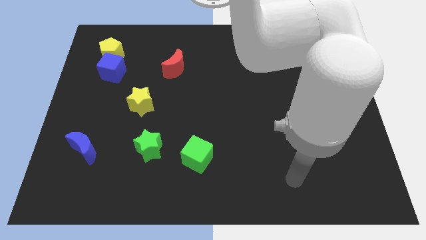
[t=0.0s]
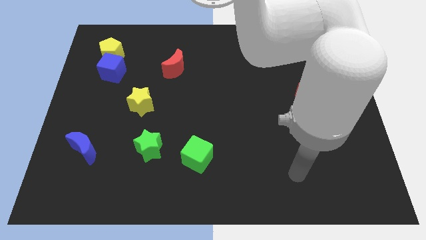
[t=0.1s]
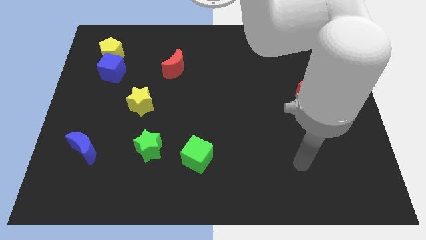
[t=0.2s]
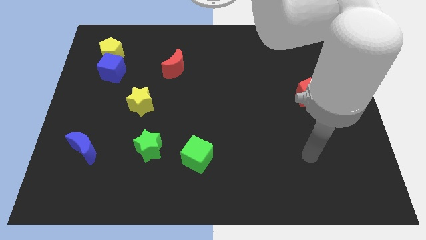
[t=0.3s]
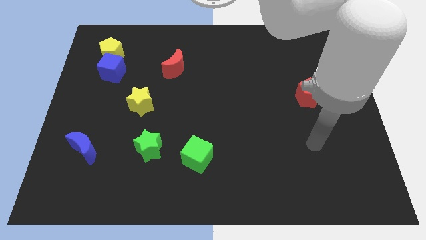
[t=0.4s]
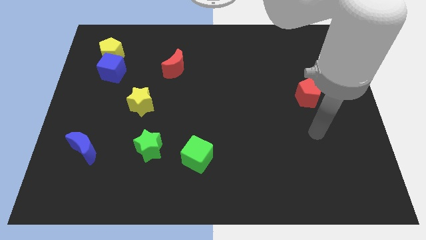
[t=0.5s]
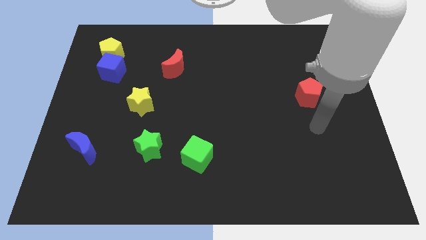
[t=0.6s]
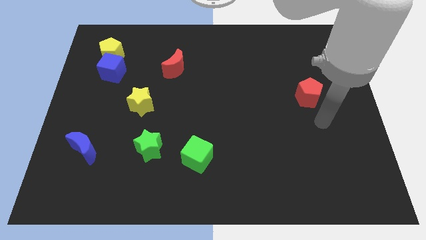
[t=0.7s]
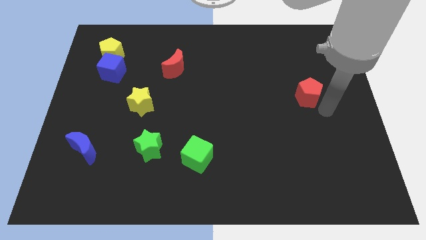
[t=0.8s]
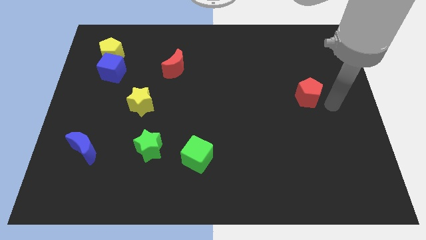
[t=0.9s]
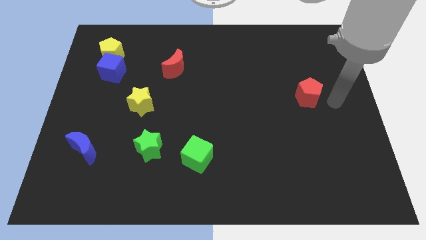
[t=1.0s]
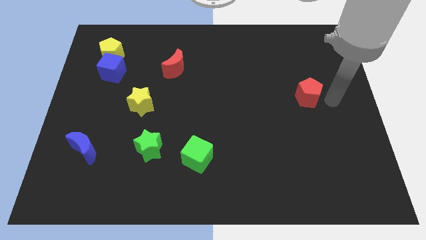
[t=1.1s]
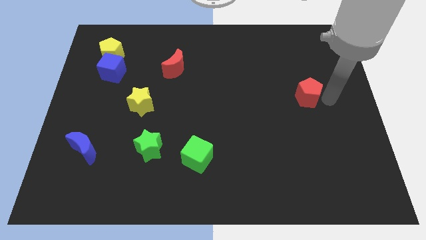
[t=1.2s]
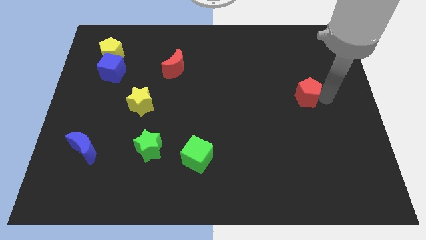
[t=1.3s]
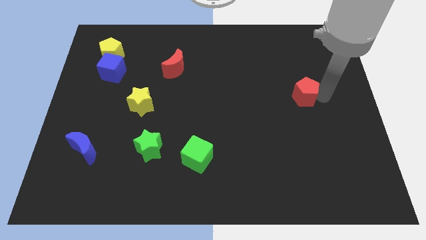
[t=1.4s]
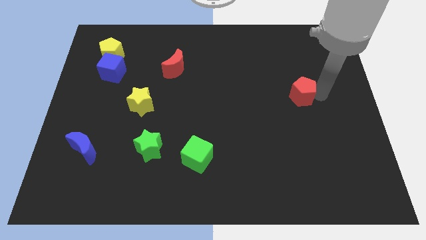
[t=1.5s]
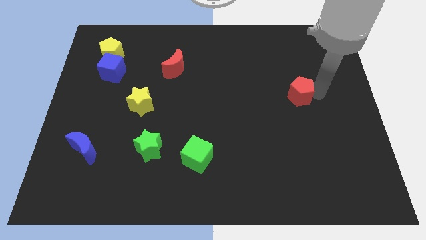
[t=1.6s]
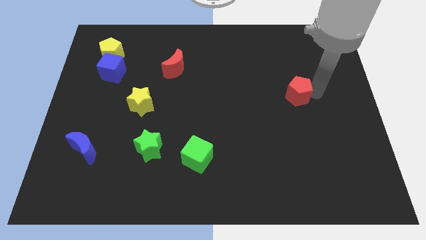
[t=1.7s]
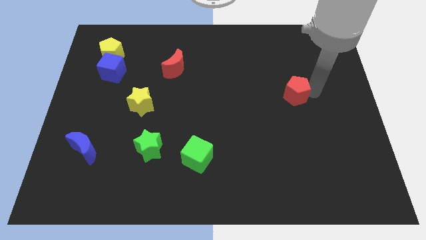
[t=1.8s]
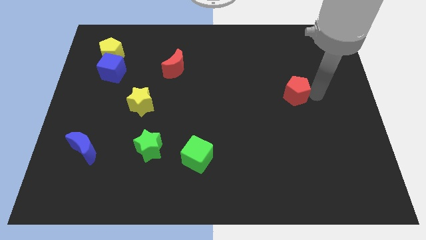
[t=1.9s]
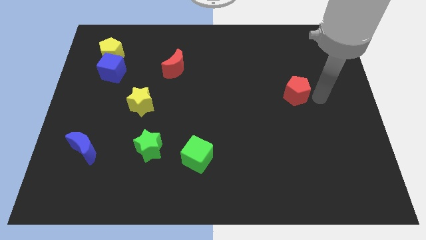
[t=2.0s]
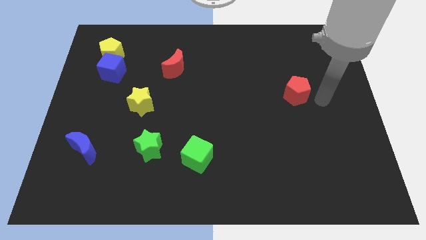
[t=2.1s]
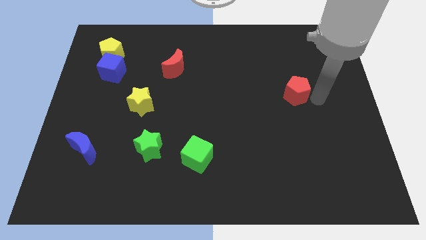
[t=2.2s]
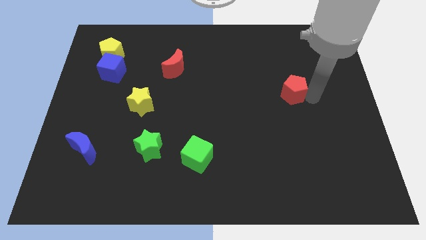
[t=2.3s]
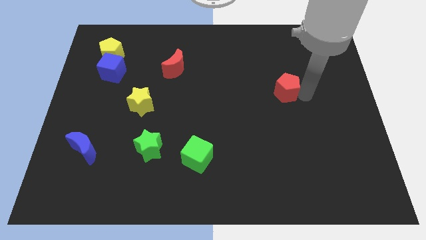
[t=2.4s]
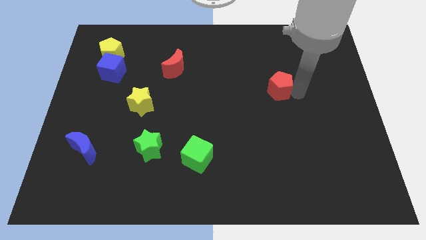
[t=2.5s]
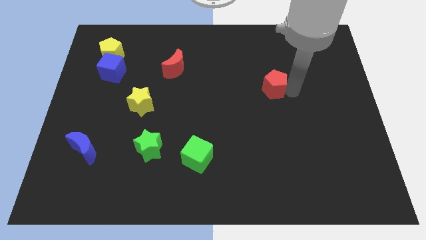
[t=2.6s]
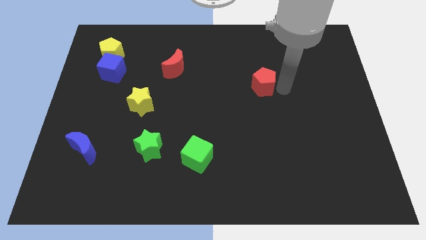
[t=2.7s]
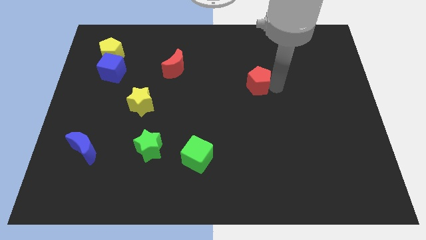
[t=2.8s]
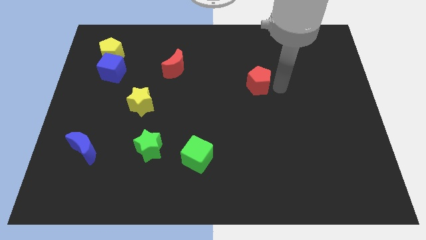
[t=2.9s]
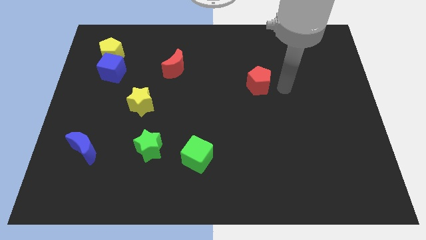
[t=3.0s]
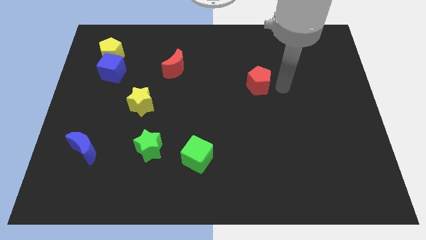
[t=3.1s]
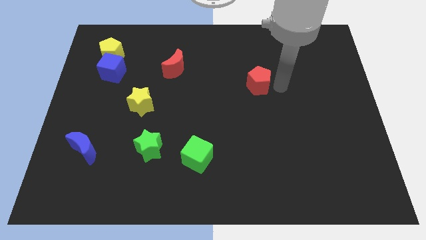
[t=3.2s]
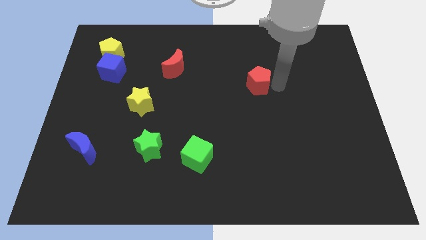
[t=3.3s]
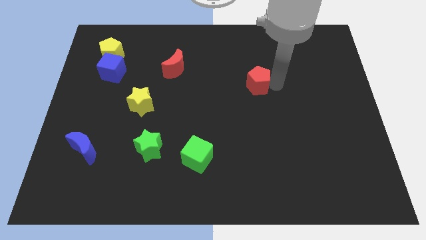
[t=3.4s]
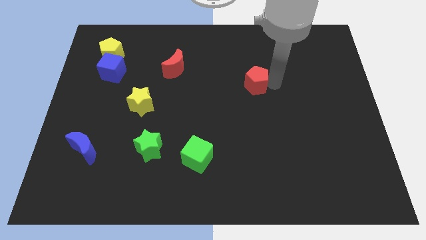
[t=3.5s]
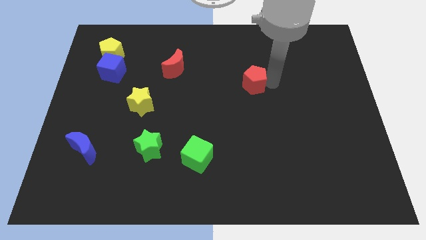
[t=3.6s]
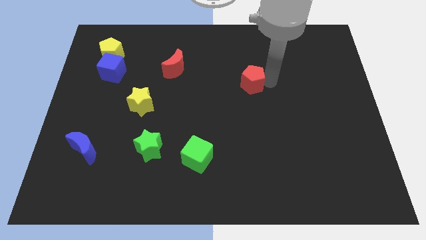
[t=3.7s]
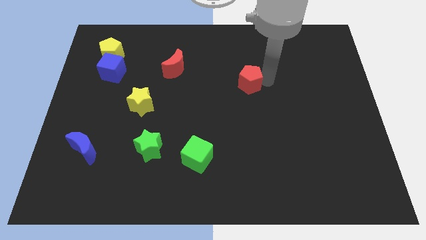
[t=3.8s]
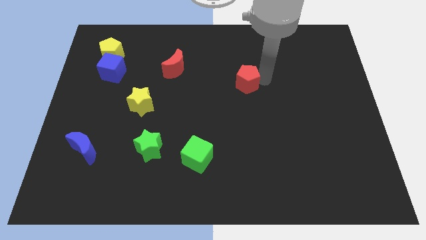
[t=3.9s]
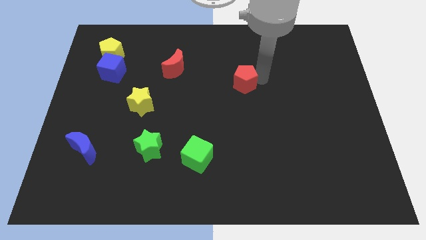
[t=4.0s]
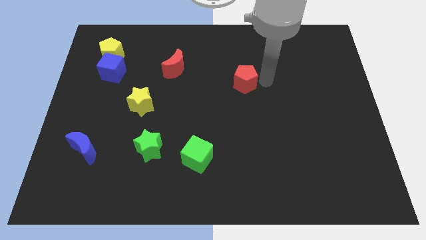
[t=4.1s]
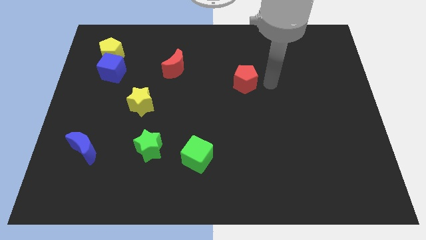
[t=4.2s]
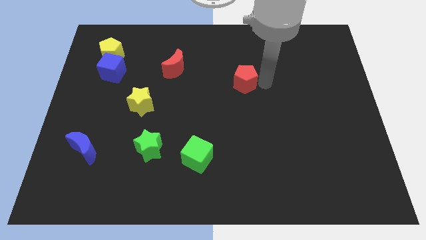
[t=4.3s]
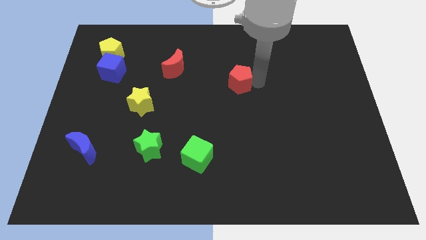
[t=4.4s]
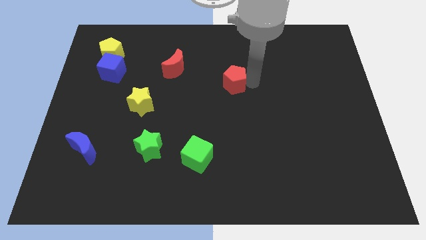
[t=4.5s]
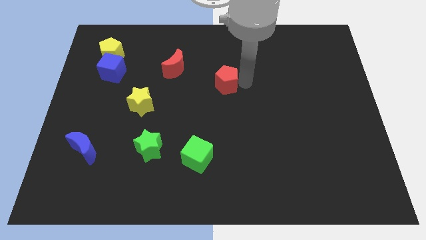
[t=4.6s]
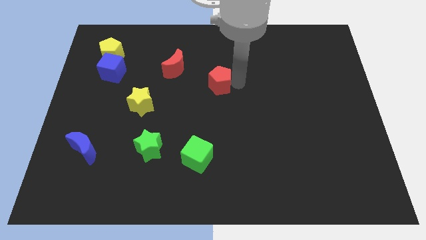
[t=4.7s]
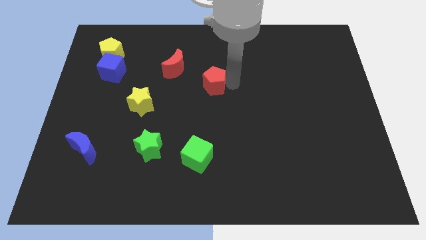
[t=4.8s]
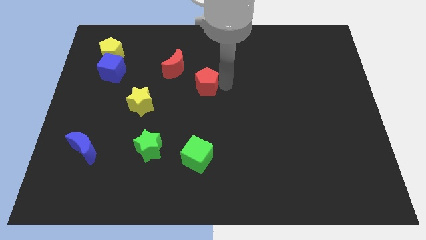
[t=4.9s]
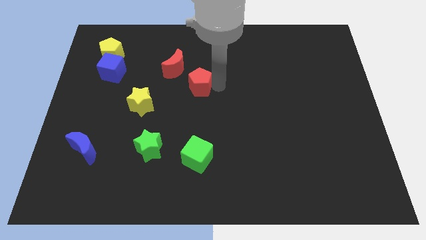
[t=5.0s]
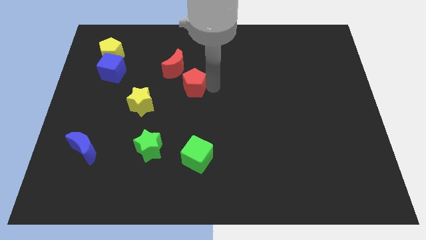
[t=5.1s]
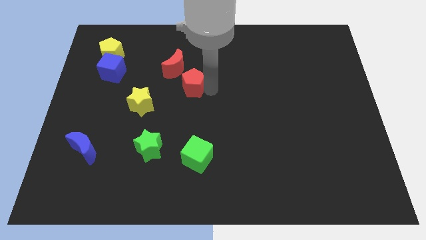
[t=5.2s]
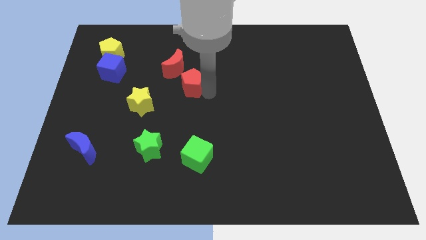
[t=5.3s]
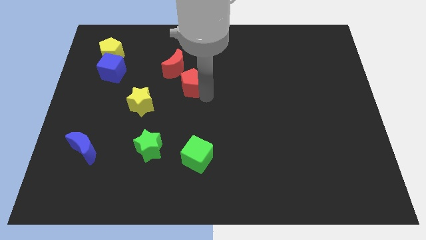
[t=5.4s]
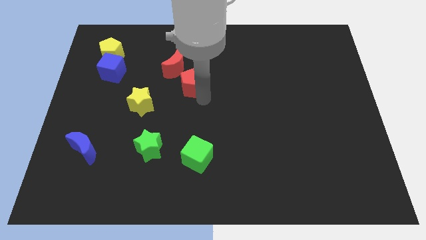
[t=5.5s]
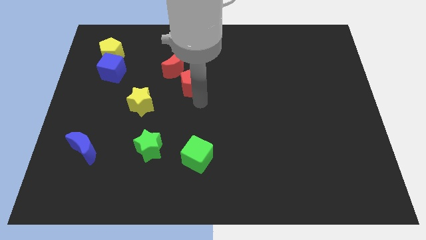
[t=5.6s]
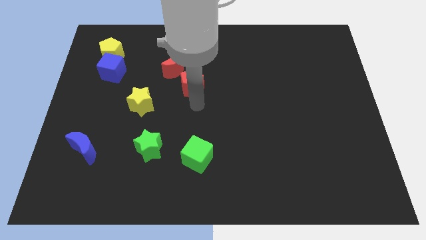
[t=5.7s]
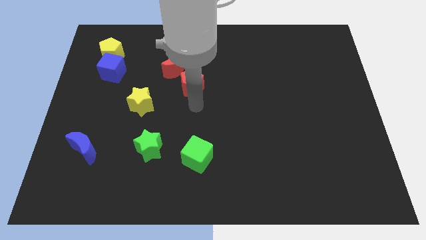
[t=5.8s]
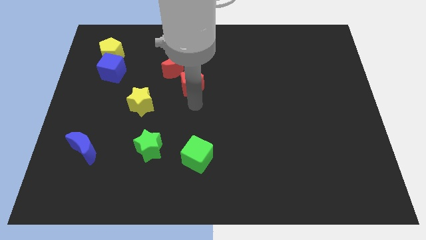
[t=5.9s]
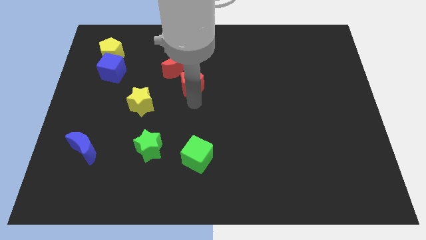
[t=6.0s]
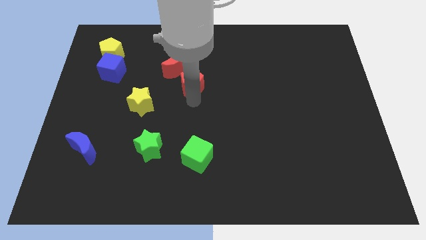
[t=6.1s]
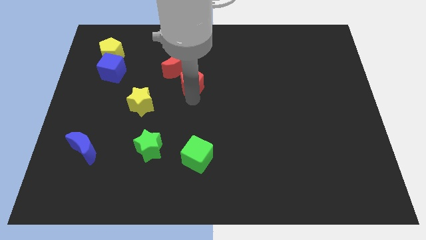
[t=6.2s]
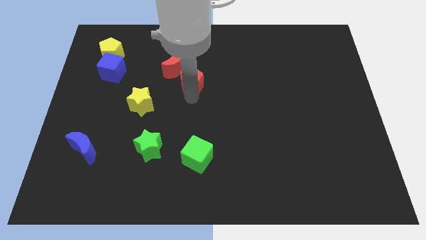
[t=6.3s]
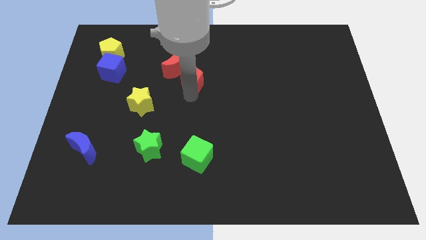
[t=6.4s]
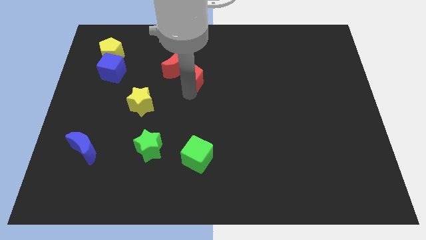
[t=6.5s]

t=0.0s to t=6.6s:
put the red pentagon to the red moon

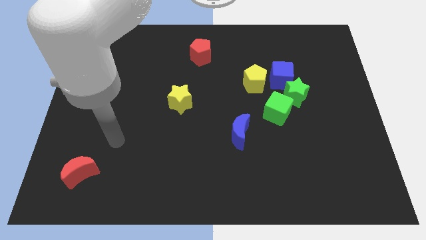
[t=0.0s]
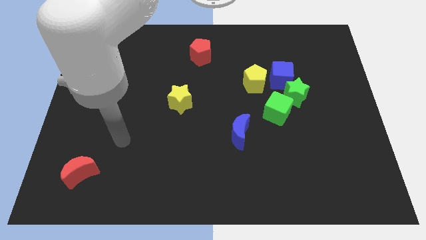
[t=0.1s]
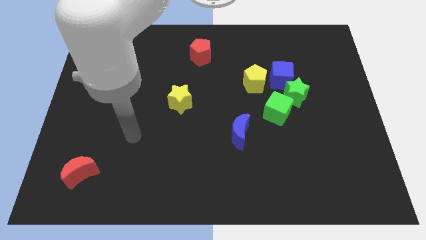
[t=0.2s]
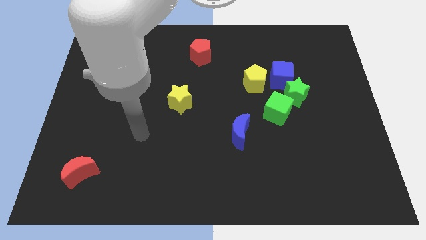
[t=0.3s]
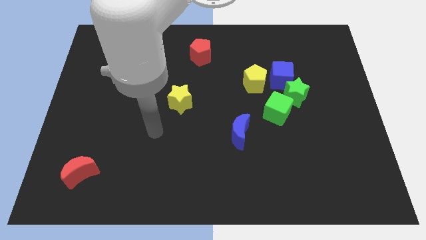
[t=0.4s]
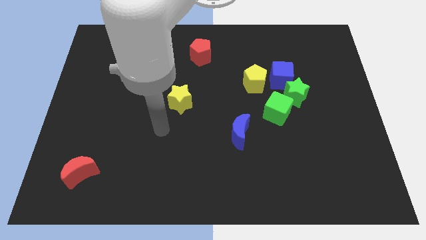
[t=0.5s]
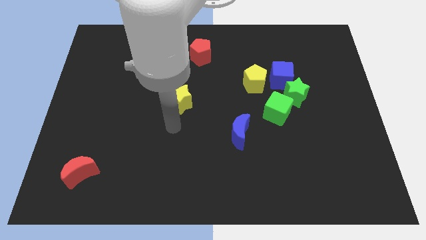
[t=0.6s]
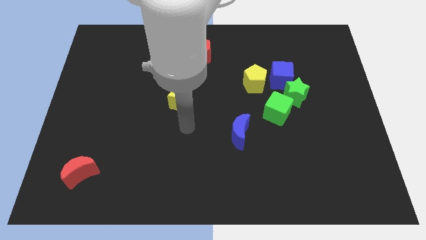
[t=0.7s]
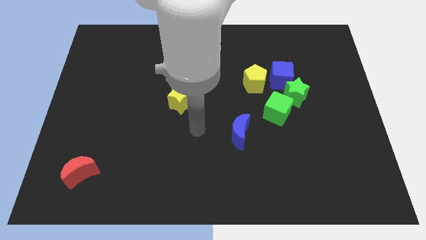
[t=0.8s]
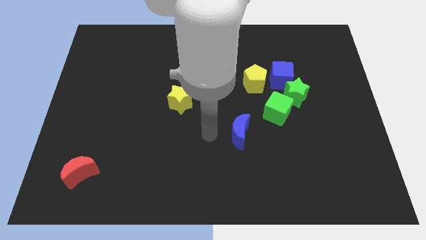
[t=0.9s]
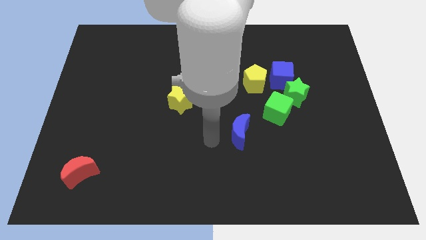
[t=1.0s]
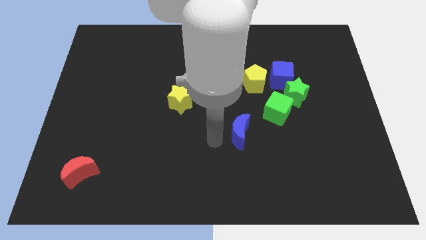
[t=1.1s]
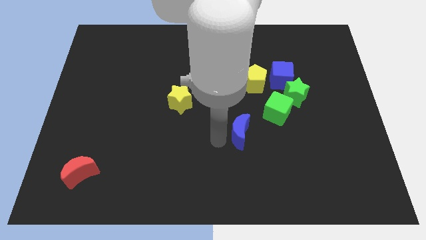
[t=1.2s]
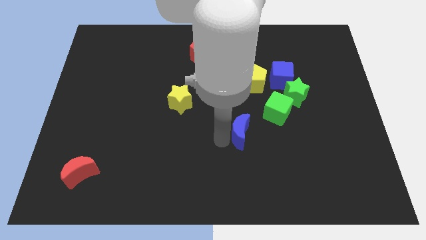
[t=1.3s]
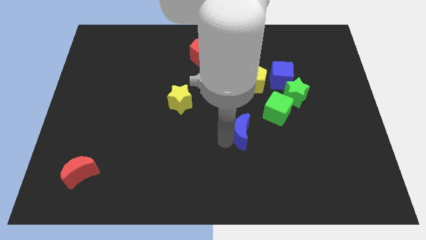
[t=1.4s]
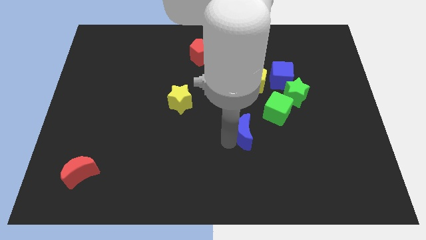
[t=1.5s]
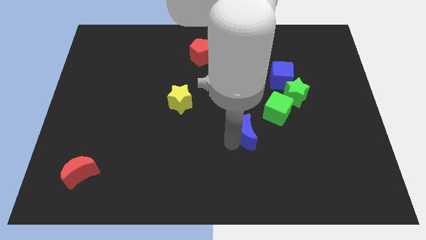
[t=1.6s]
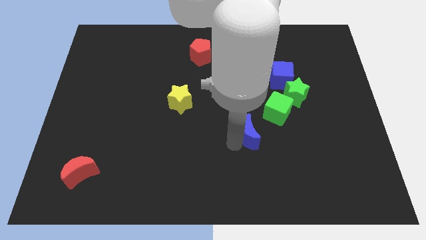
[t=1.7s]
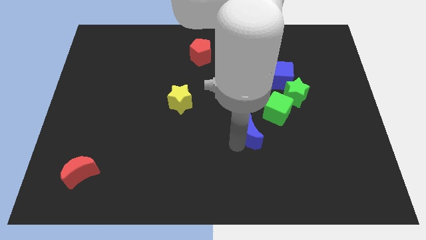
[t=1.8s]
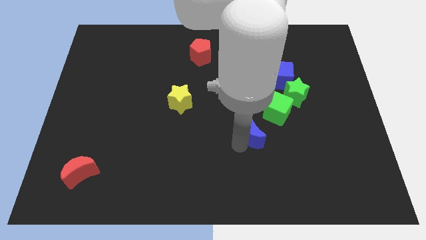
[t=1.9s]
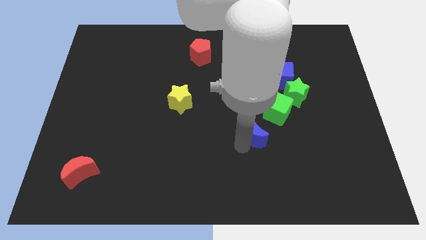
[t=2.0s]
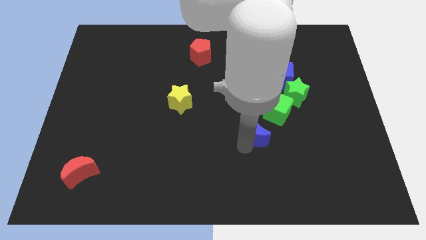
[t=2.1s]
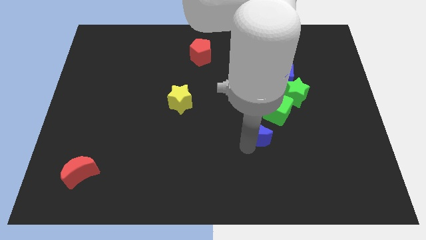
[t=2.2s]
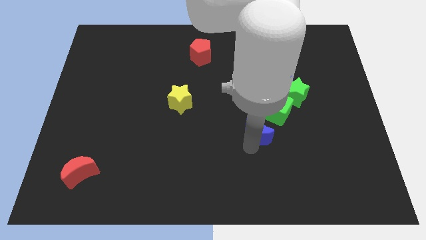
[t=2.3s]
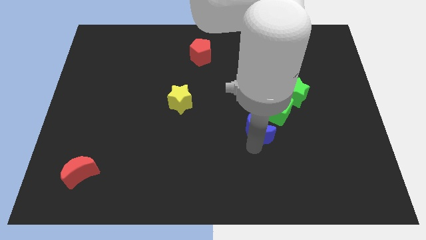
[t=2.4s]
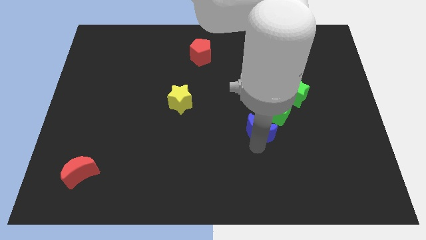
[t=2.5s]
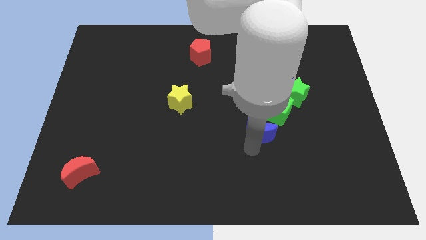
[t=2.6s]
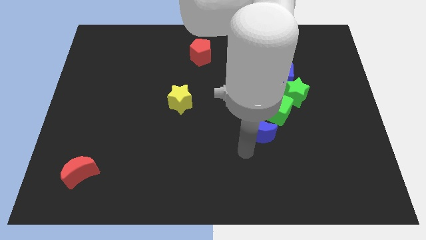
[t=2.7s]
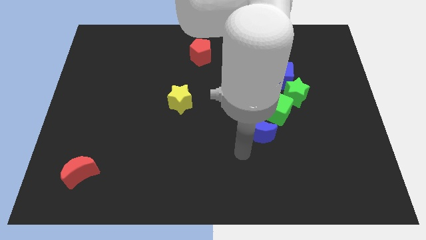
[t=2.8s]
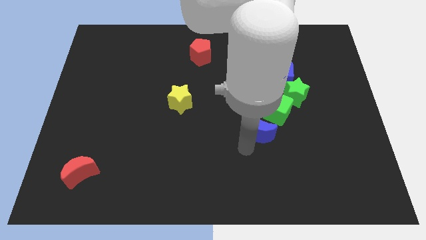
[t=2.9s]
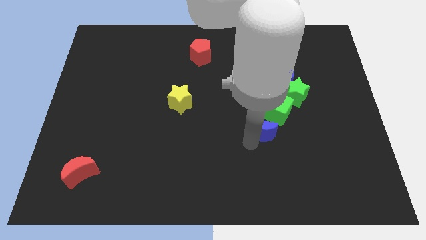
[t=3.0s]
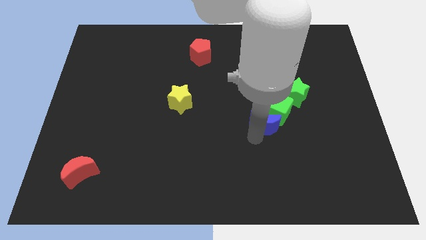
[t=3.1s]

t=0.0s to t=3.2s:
move the blue moon next to the green cube
